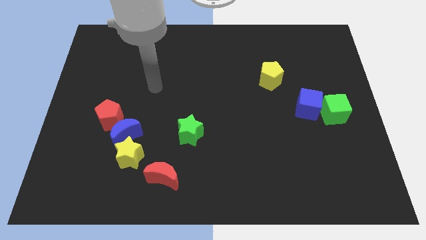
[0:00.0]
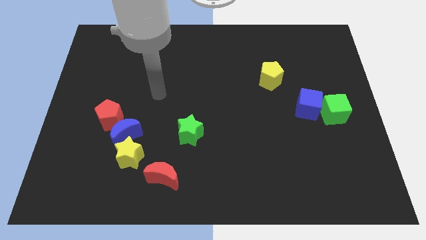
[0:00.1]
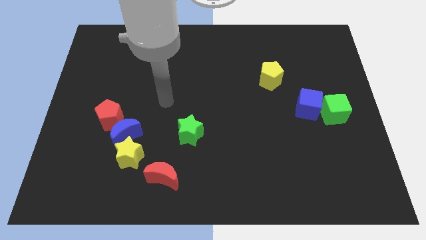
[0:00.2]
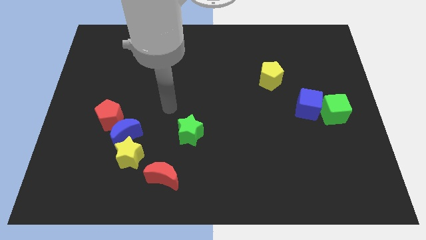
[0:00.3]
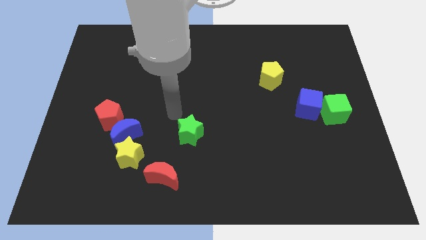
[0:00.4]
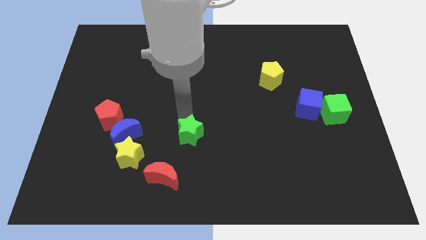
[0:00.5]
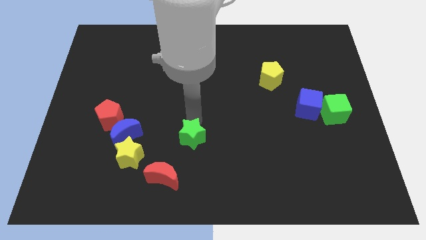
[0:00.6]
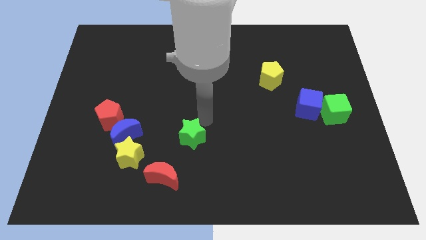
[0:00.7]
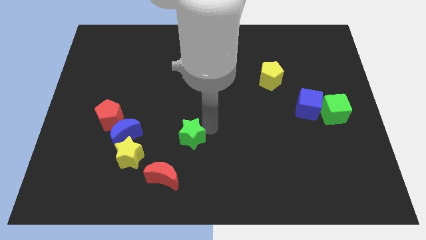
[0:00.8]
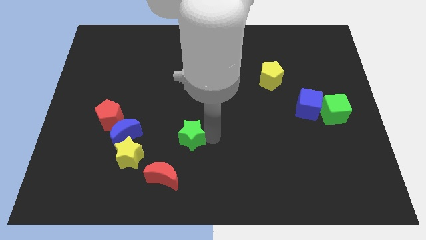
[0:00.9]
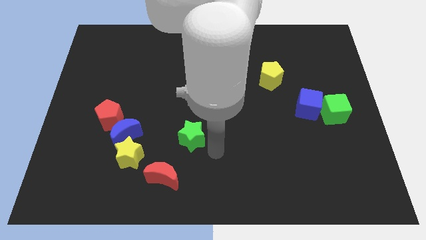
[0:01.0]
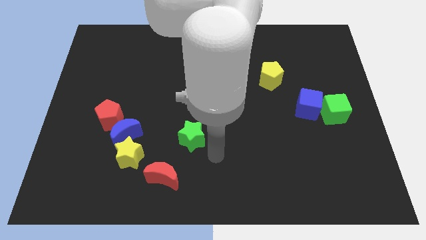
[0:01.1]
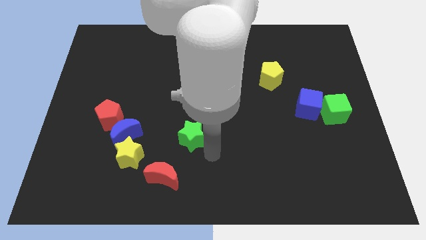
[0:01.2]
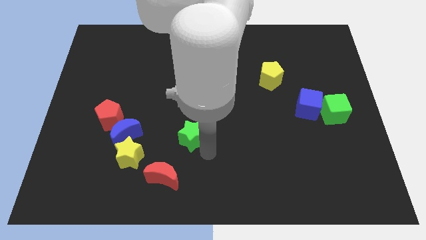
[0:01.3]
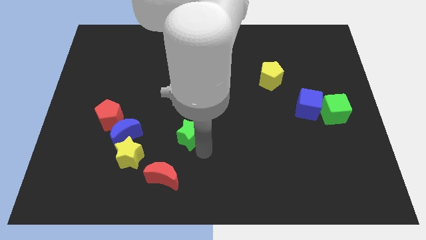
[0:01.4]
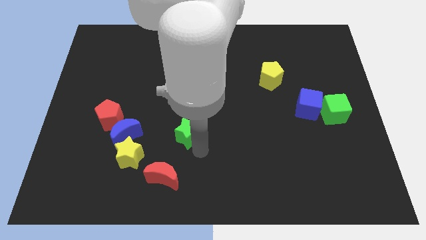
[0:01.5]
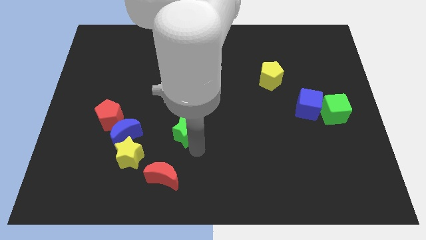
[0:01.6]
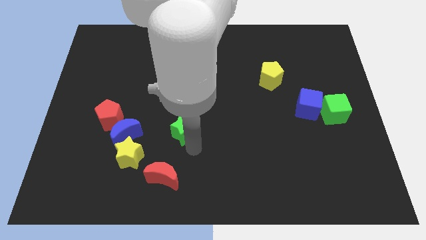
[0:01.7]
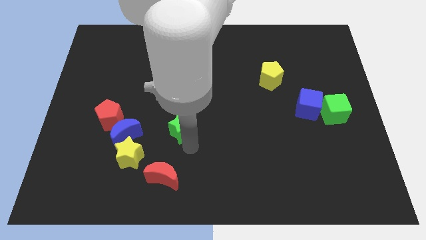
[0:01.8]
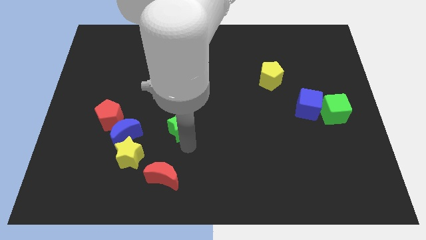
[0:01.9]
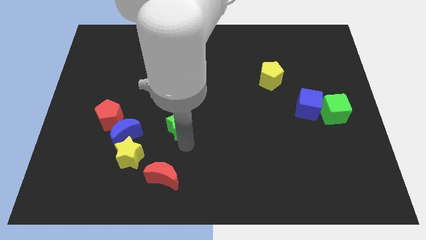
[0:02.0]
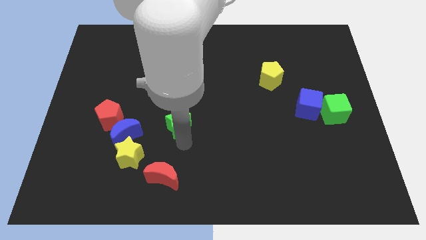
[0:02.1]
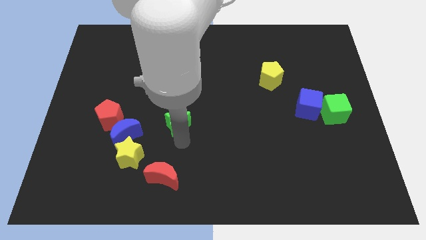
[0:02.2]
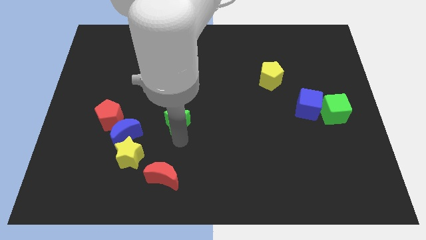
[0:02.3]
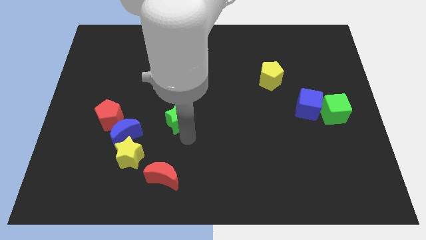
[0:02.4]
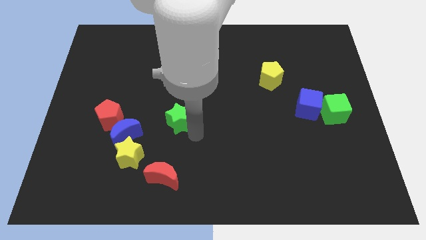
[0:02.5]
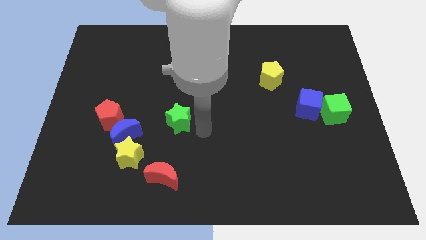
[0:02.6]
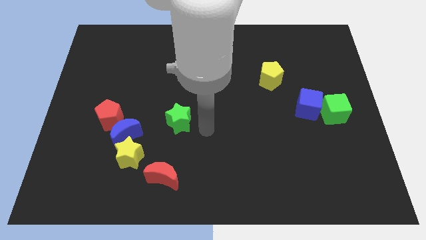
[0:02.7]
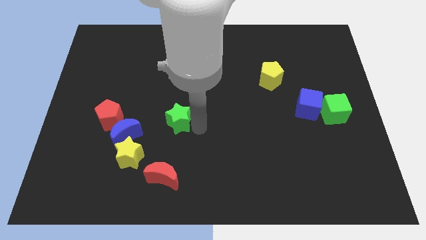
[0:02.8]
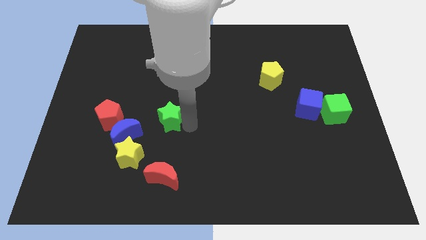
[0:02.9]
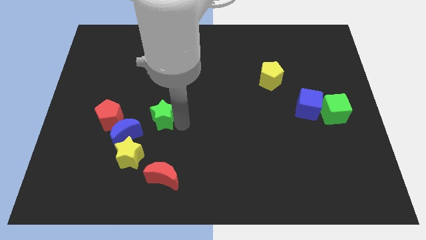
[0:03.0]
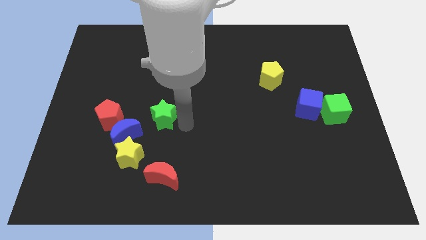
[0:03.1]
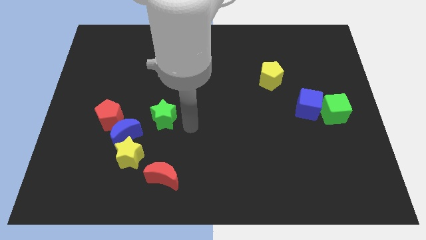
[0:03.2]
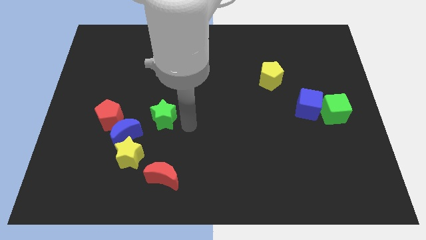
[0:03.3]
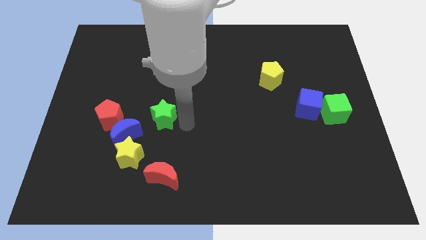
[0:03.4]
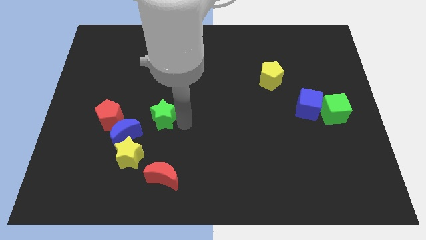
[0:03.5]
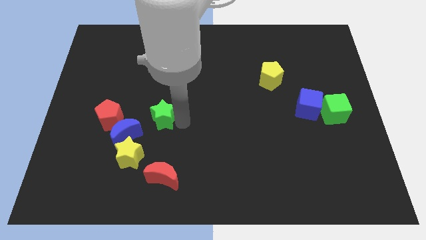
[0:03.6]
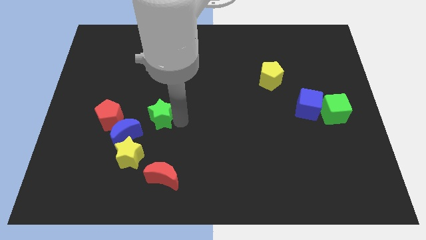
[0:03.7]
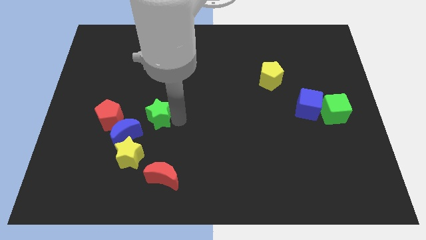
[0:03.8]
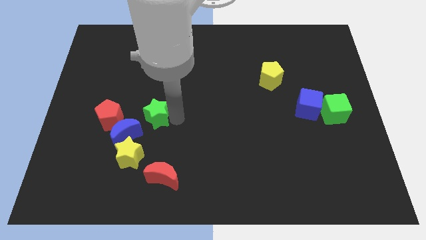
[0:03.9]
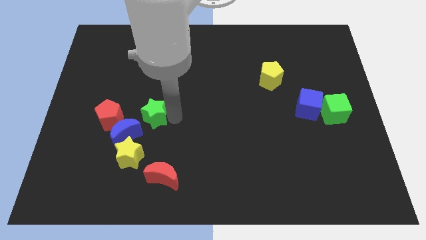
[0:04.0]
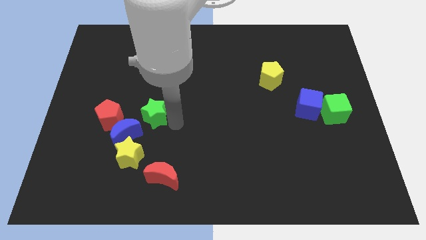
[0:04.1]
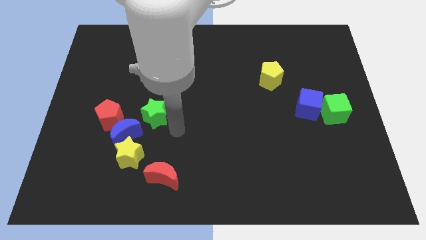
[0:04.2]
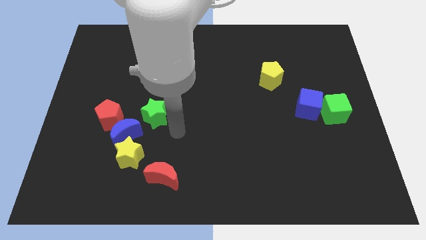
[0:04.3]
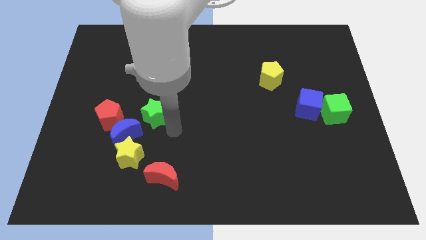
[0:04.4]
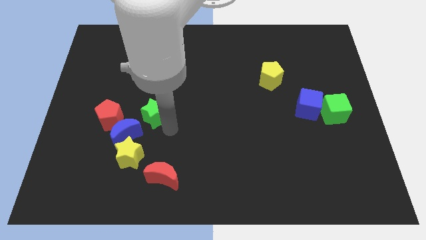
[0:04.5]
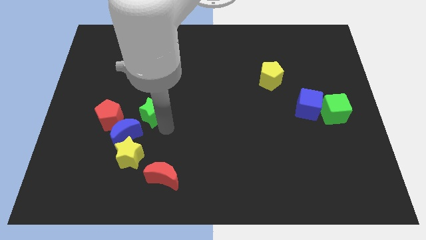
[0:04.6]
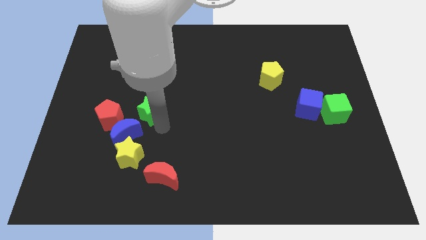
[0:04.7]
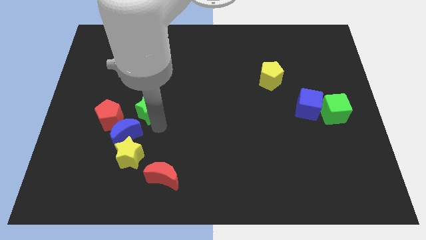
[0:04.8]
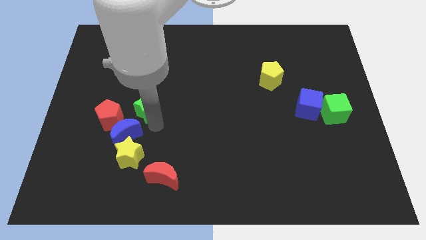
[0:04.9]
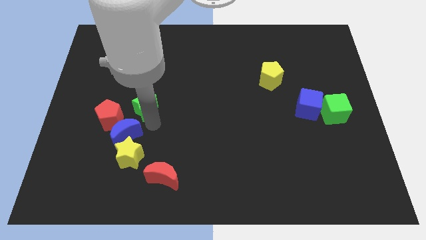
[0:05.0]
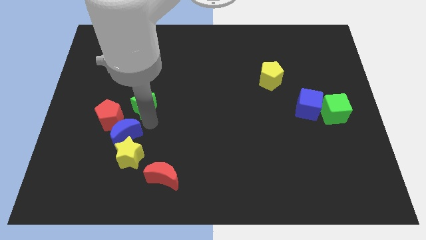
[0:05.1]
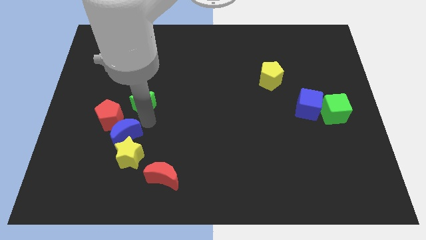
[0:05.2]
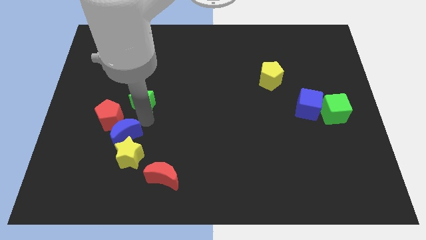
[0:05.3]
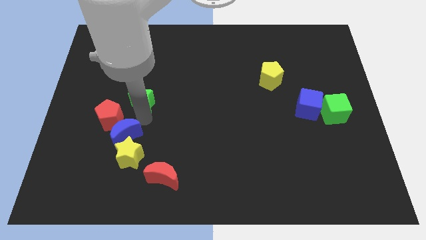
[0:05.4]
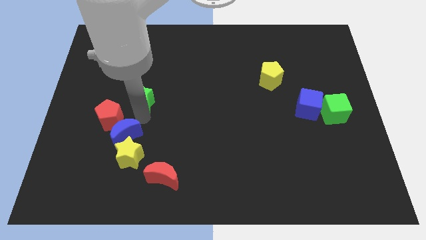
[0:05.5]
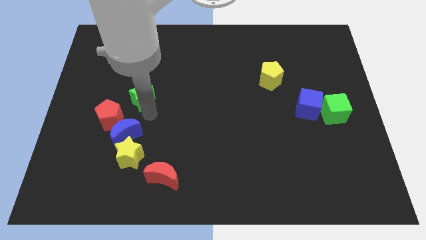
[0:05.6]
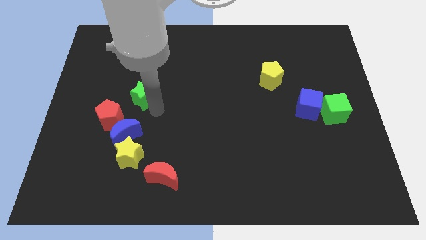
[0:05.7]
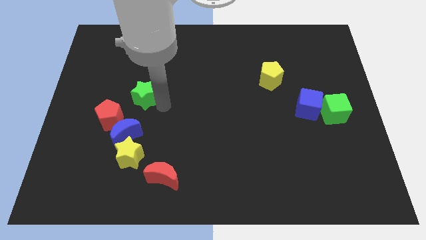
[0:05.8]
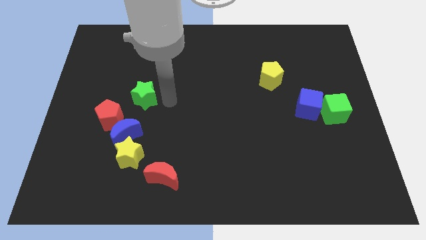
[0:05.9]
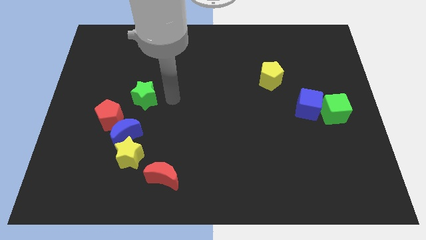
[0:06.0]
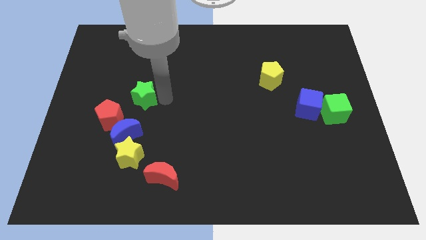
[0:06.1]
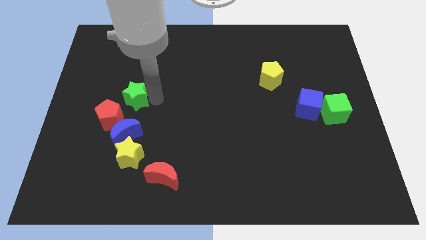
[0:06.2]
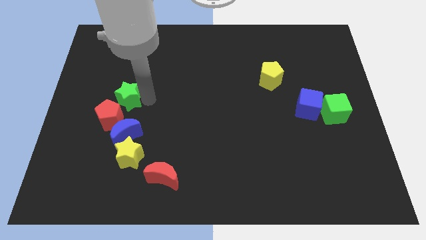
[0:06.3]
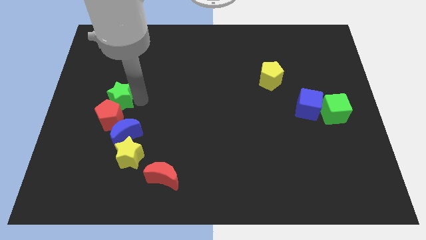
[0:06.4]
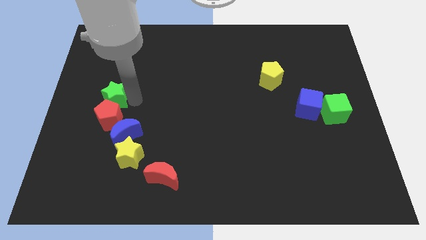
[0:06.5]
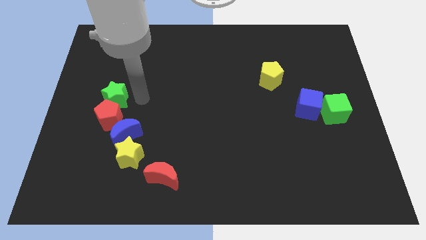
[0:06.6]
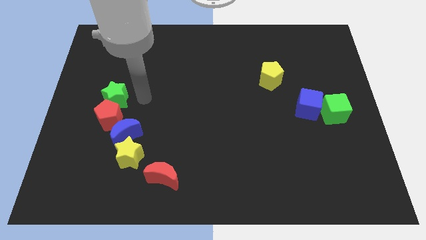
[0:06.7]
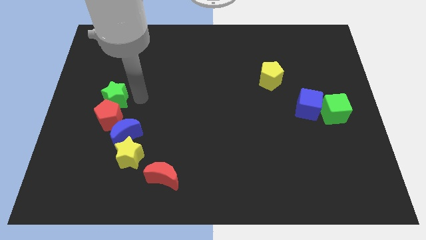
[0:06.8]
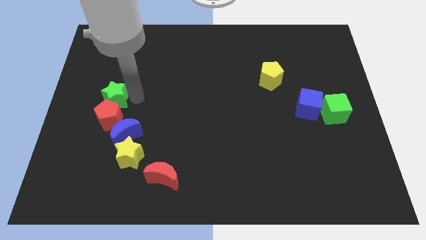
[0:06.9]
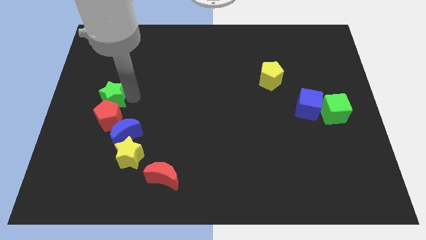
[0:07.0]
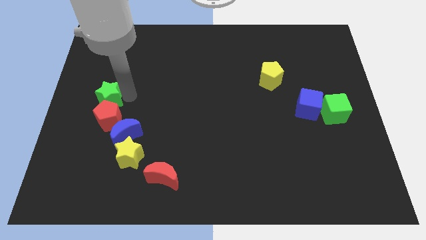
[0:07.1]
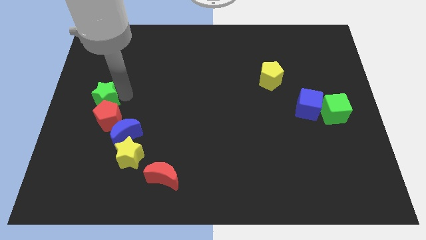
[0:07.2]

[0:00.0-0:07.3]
slide the green star to the left side of the board

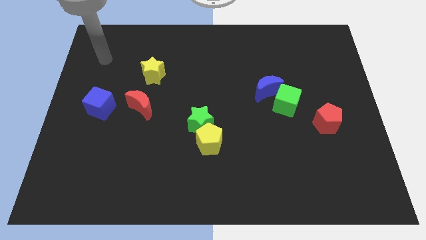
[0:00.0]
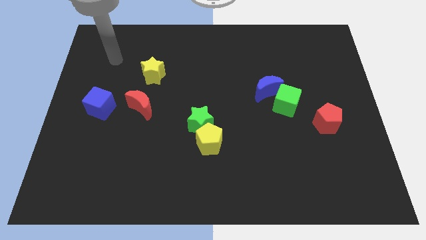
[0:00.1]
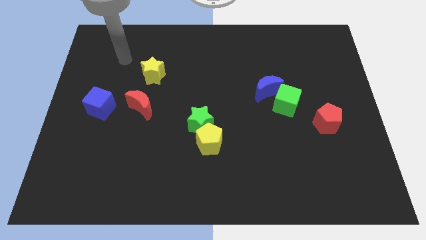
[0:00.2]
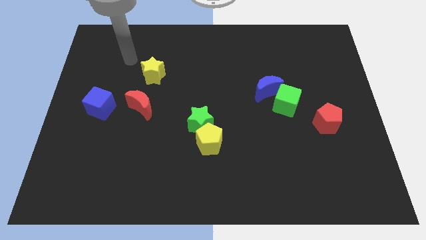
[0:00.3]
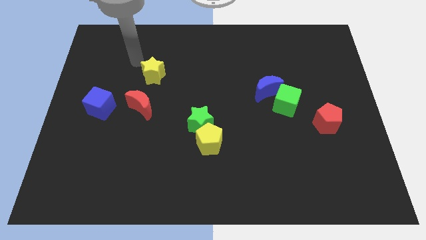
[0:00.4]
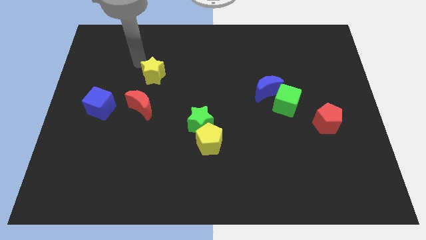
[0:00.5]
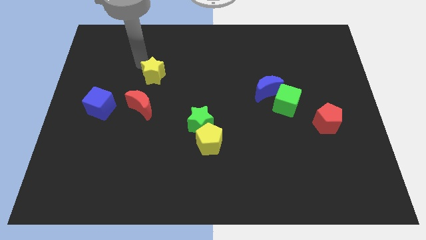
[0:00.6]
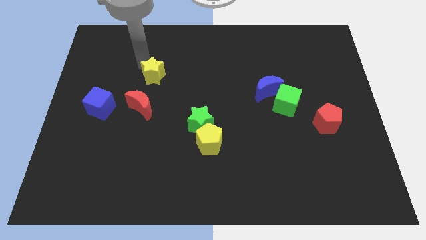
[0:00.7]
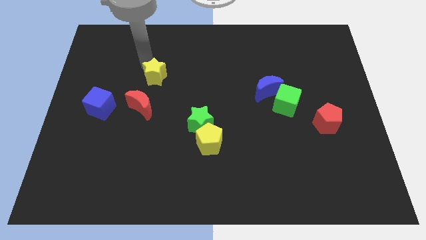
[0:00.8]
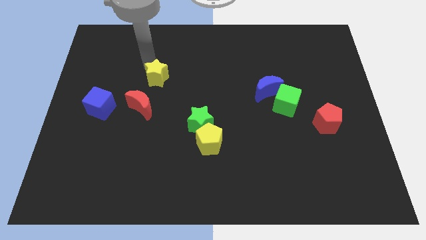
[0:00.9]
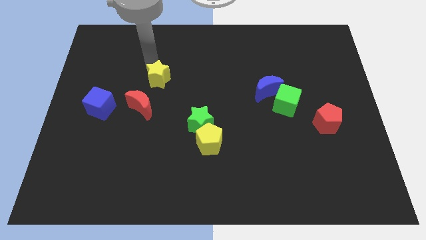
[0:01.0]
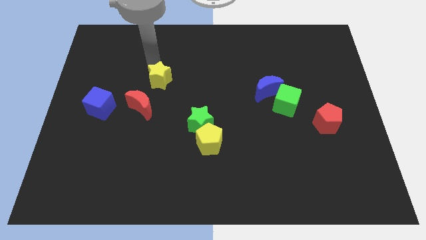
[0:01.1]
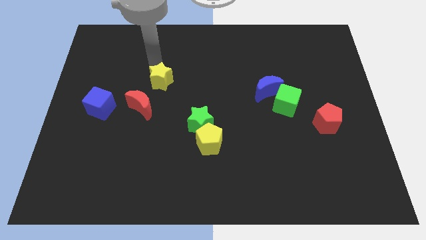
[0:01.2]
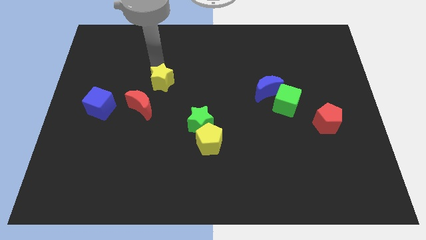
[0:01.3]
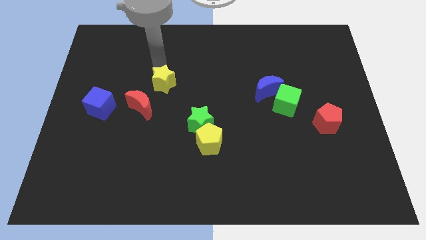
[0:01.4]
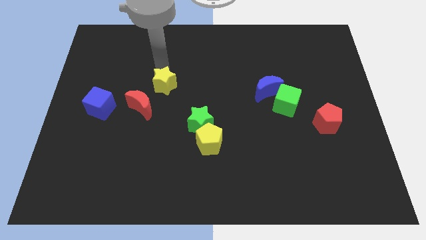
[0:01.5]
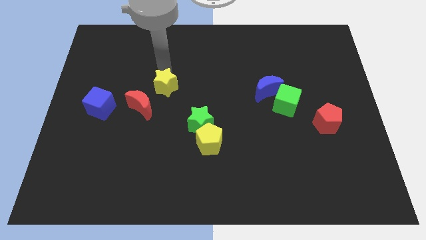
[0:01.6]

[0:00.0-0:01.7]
put the yellow star to the middle of the board
